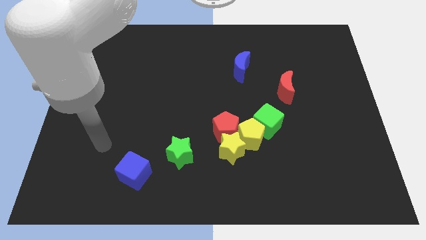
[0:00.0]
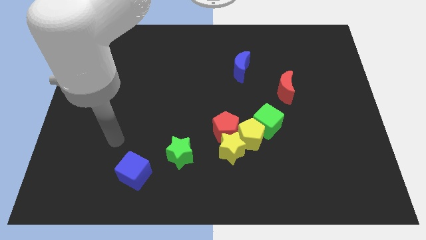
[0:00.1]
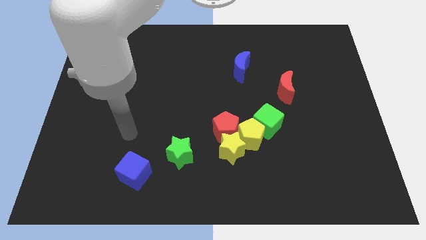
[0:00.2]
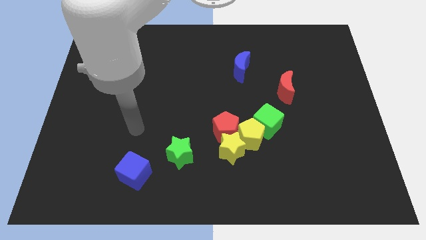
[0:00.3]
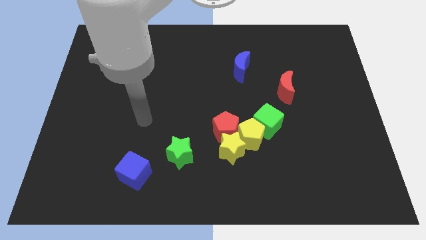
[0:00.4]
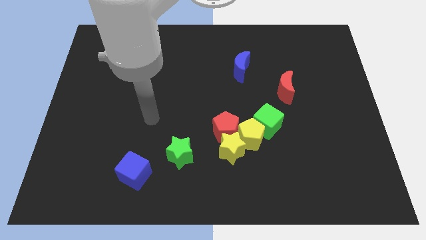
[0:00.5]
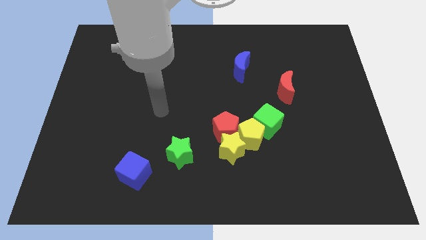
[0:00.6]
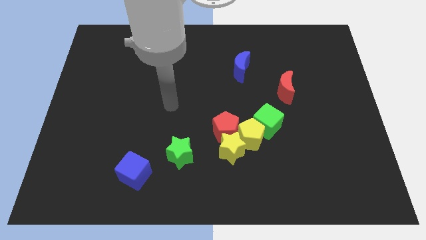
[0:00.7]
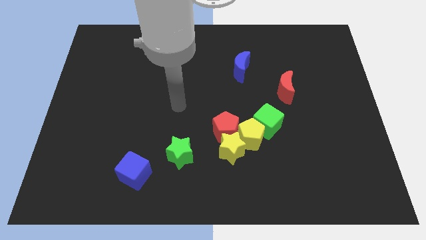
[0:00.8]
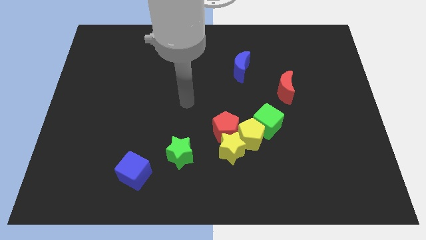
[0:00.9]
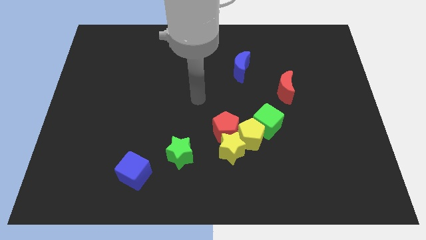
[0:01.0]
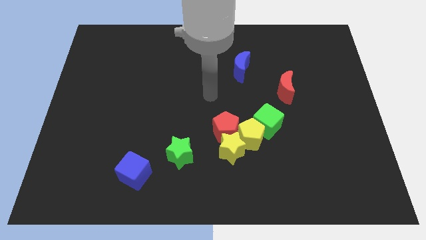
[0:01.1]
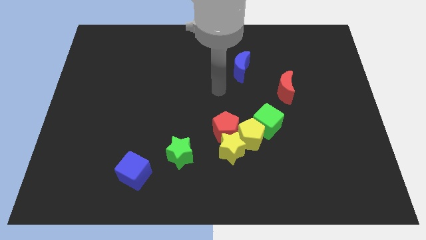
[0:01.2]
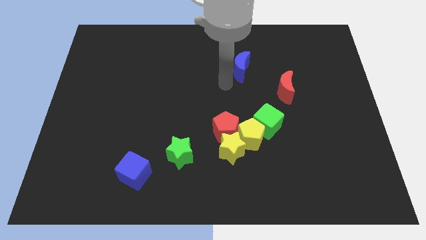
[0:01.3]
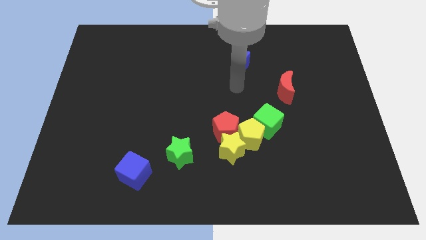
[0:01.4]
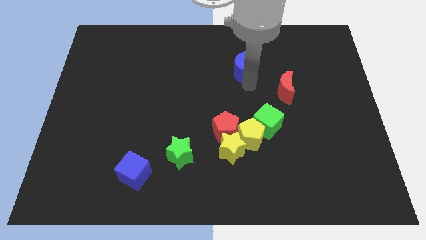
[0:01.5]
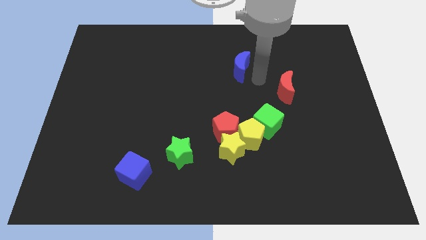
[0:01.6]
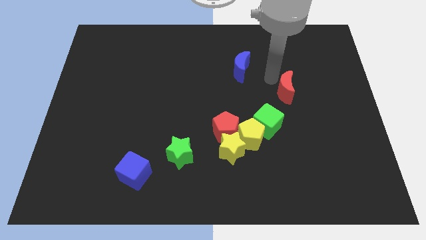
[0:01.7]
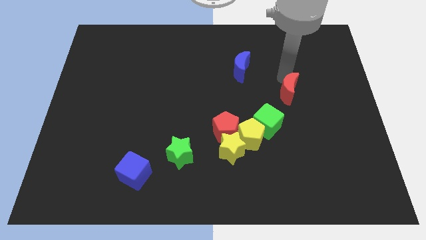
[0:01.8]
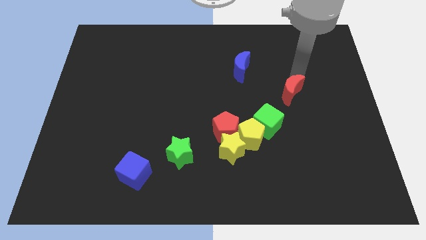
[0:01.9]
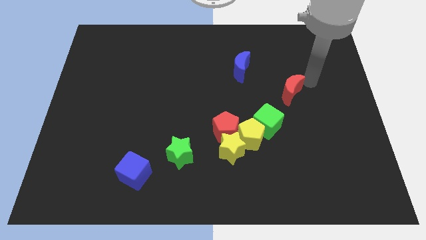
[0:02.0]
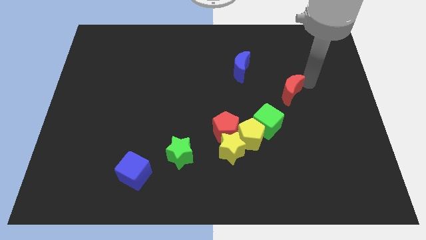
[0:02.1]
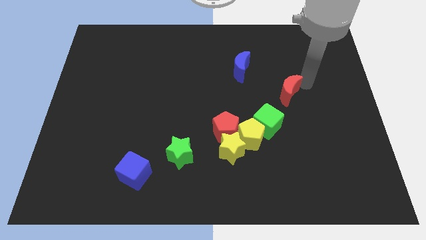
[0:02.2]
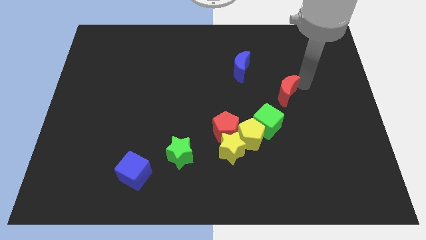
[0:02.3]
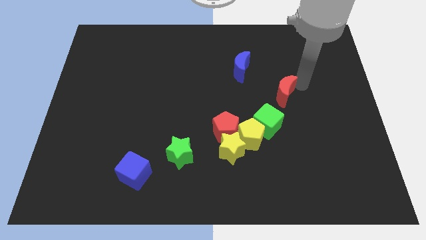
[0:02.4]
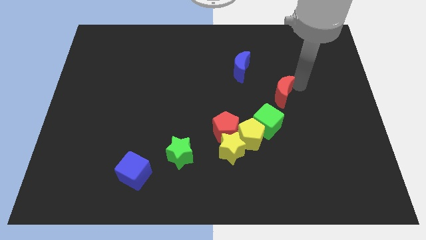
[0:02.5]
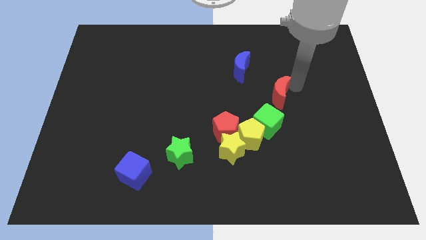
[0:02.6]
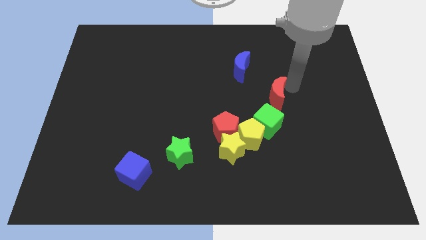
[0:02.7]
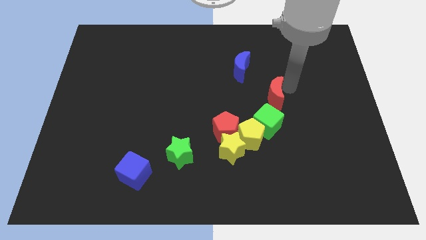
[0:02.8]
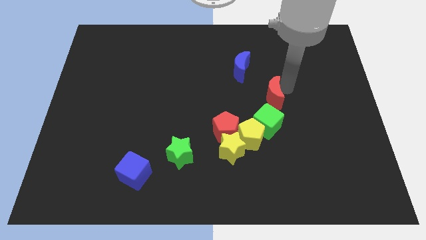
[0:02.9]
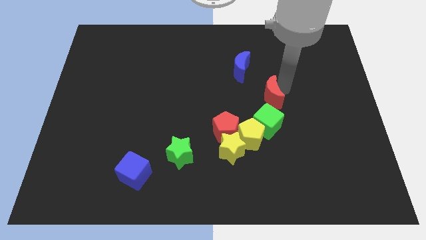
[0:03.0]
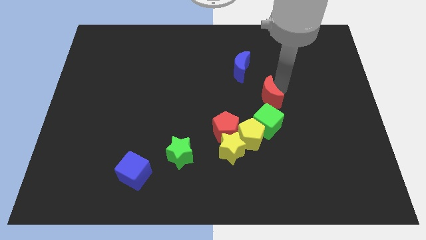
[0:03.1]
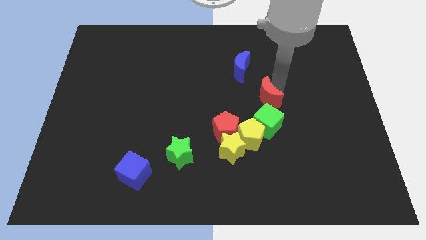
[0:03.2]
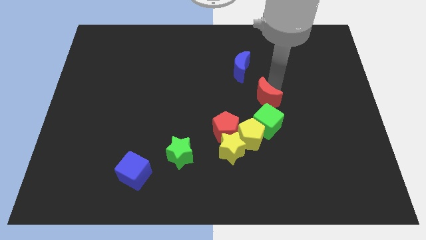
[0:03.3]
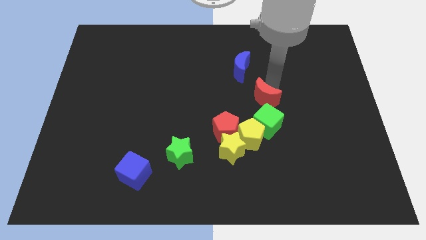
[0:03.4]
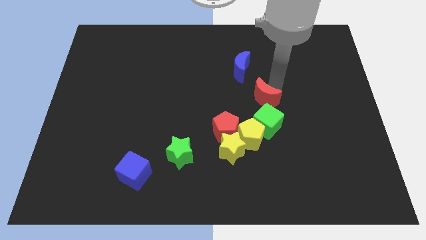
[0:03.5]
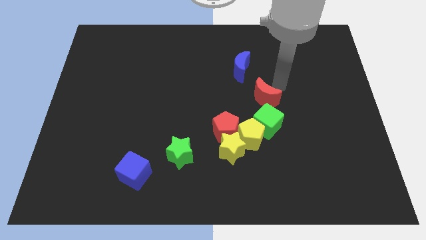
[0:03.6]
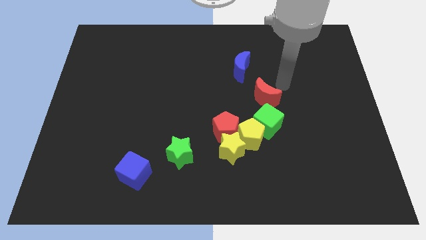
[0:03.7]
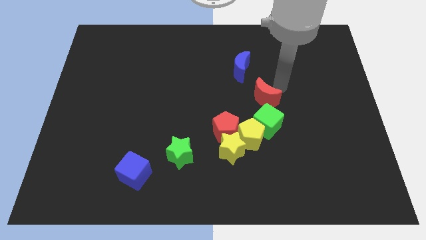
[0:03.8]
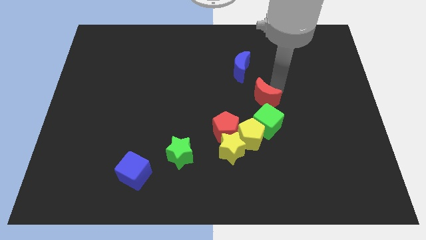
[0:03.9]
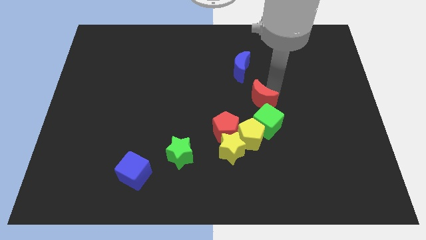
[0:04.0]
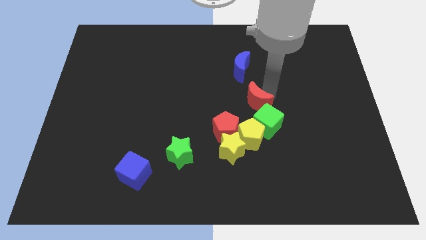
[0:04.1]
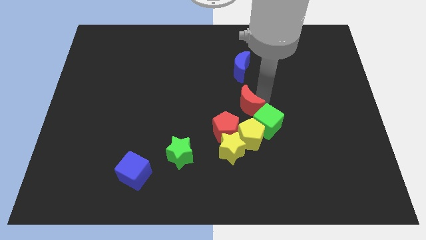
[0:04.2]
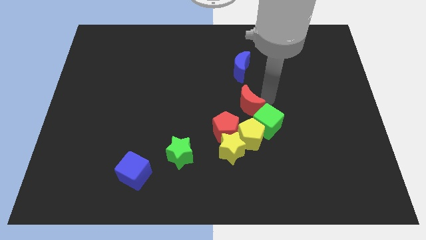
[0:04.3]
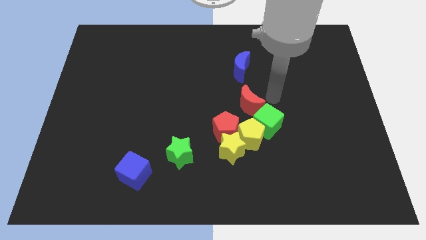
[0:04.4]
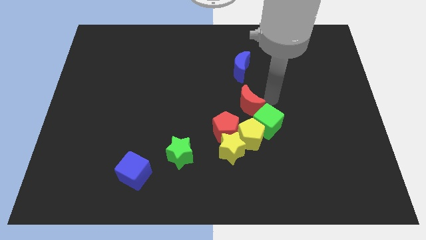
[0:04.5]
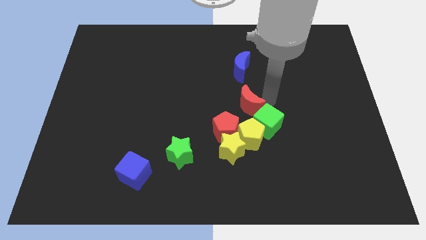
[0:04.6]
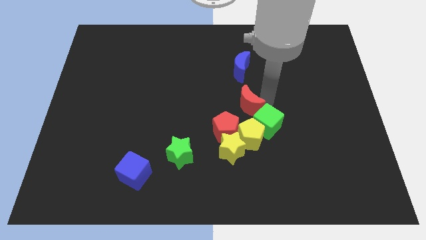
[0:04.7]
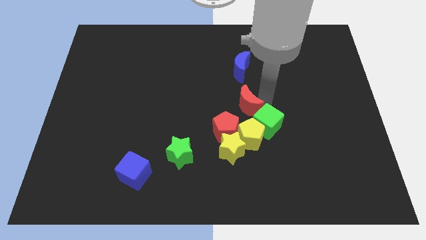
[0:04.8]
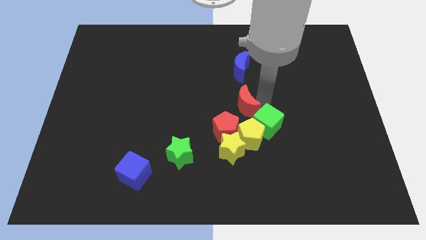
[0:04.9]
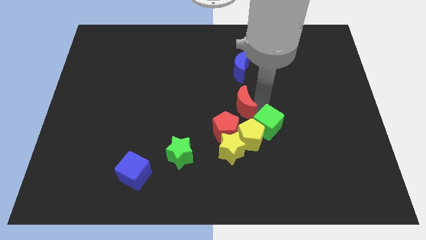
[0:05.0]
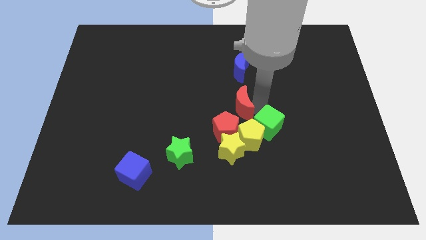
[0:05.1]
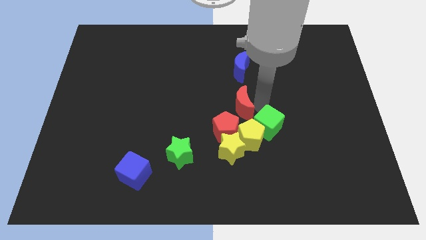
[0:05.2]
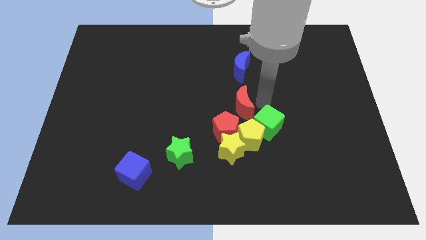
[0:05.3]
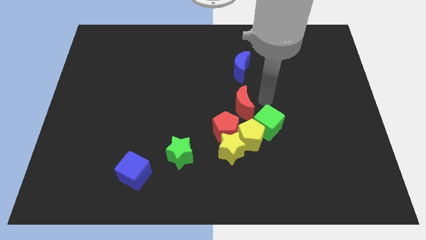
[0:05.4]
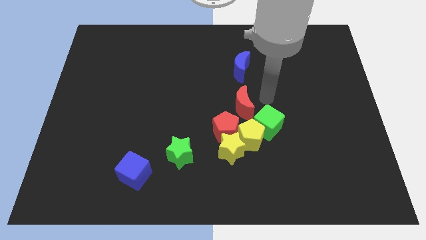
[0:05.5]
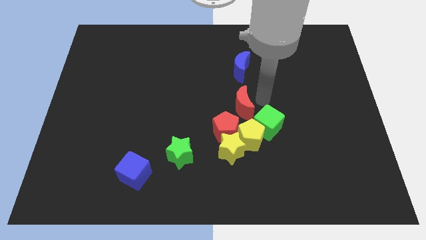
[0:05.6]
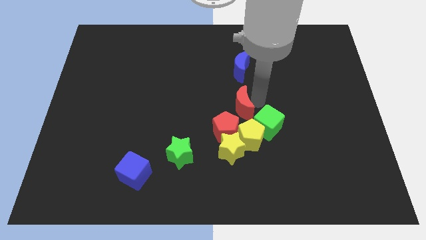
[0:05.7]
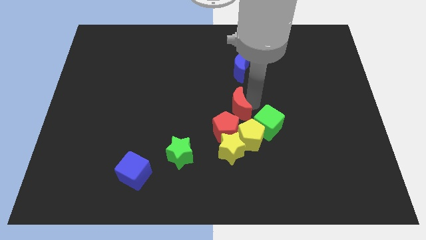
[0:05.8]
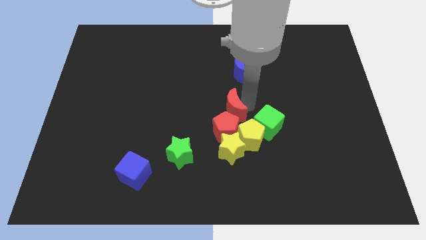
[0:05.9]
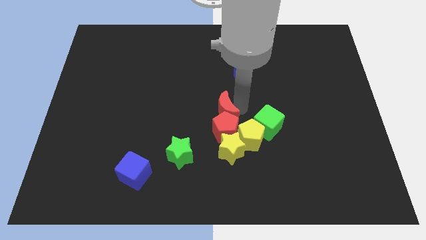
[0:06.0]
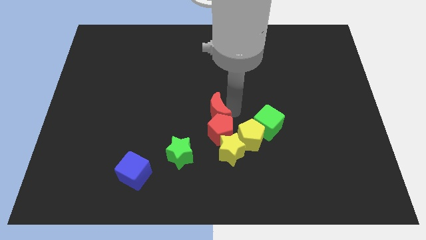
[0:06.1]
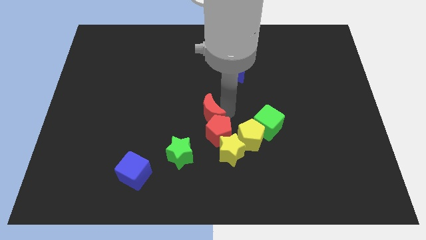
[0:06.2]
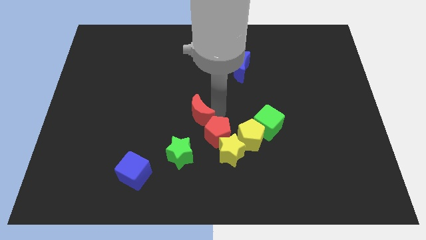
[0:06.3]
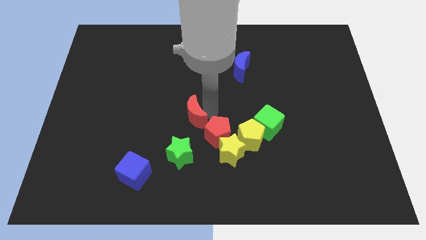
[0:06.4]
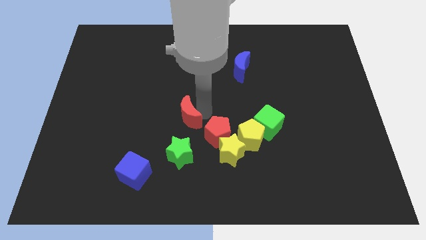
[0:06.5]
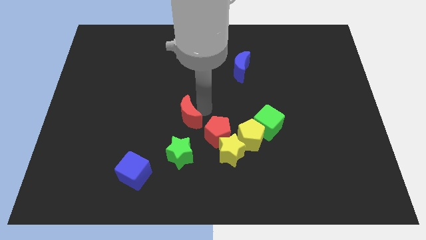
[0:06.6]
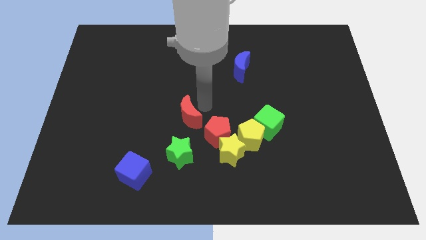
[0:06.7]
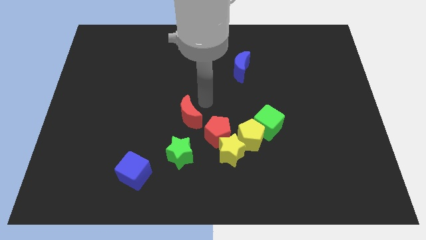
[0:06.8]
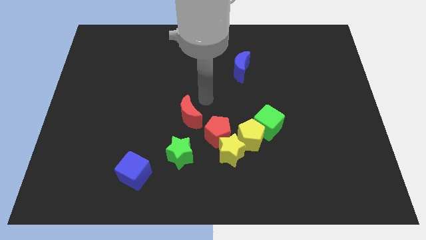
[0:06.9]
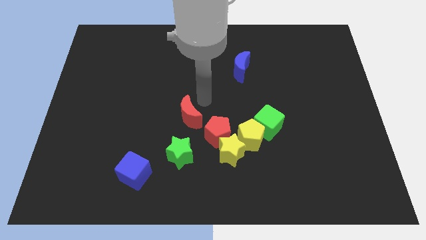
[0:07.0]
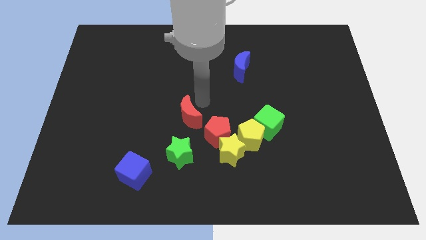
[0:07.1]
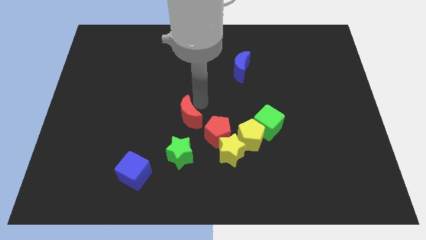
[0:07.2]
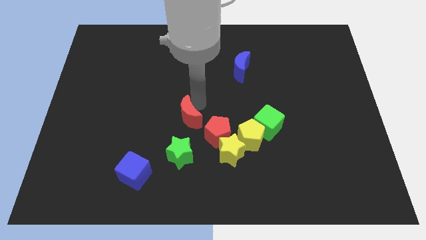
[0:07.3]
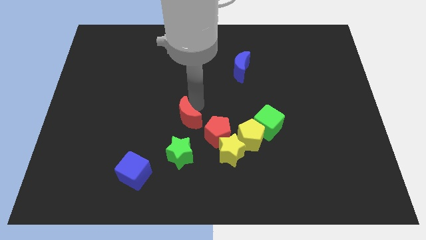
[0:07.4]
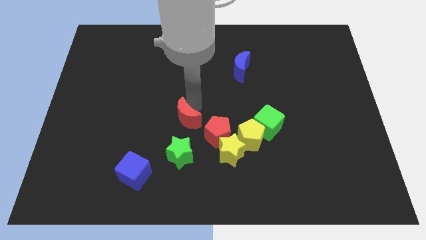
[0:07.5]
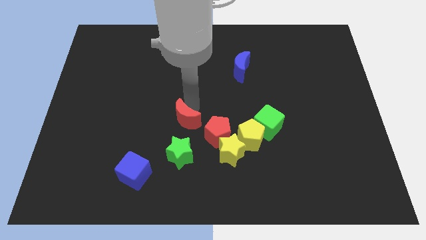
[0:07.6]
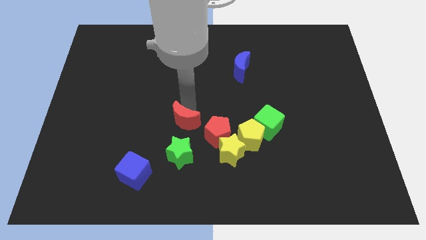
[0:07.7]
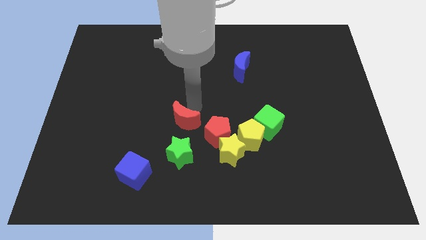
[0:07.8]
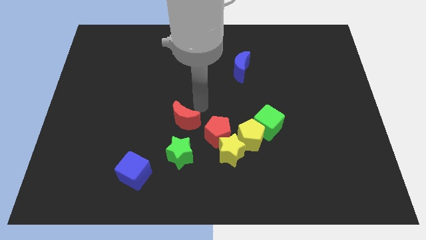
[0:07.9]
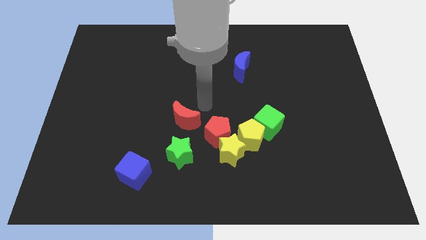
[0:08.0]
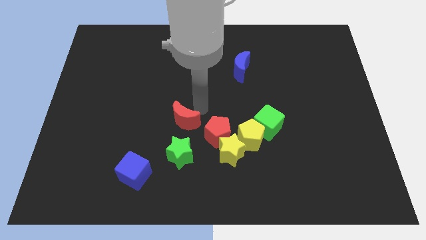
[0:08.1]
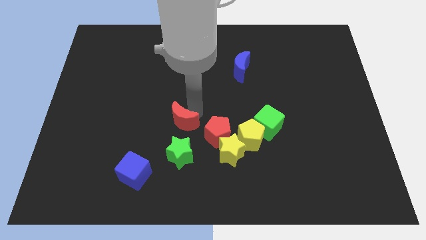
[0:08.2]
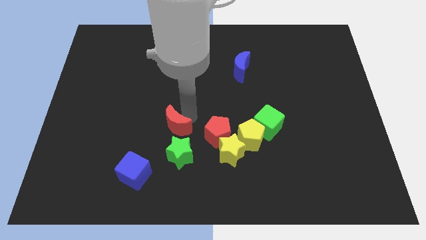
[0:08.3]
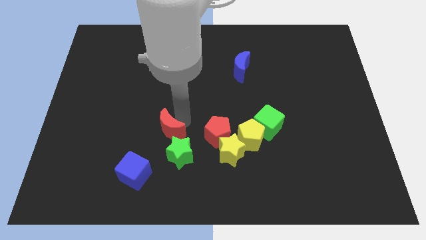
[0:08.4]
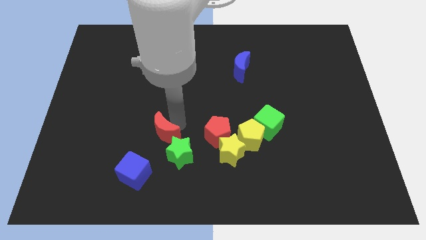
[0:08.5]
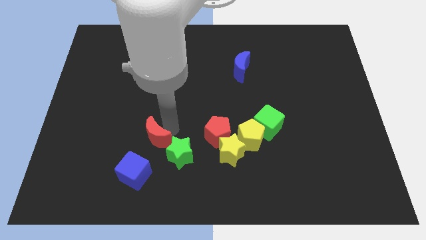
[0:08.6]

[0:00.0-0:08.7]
move the red moon to the left of the green star
